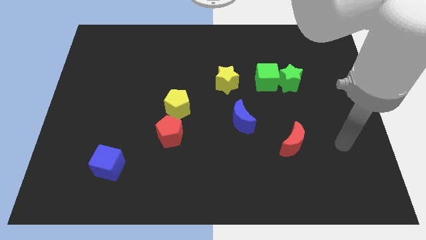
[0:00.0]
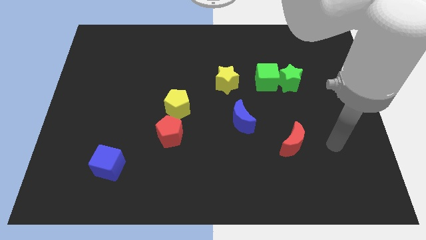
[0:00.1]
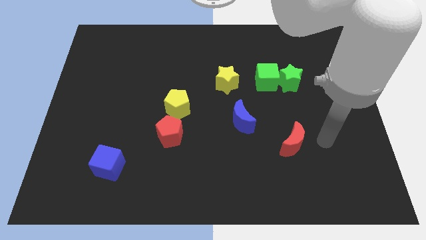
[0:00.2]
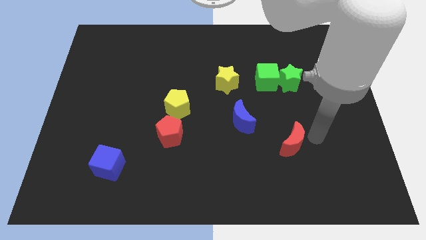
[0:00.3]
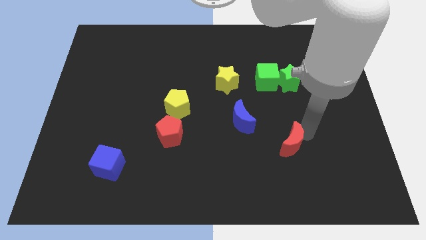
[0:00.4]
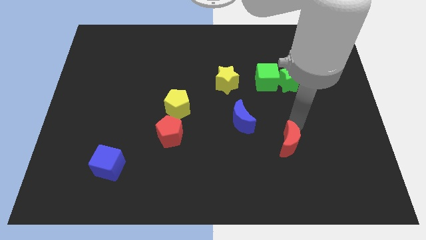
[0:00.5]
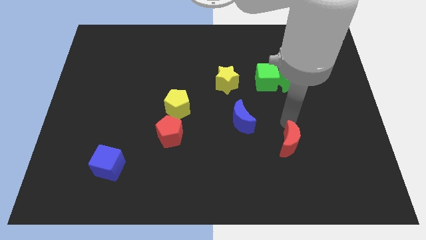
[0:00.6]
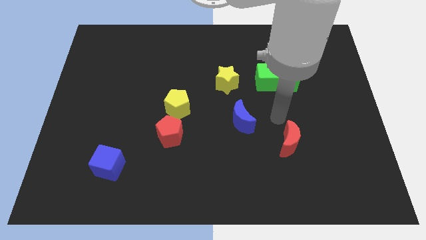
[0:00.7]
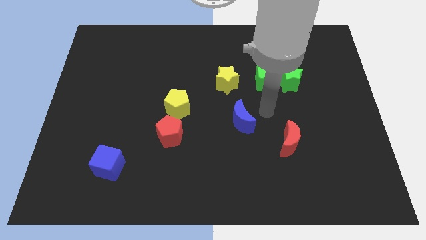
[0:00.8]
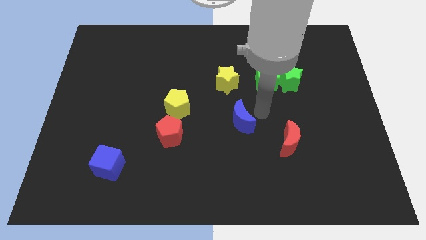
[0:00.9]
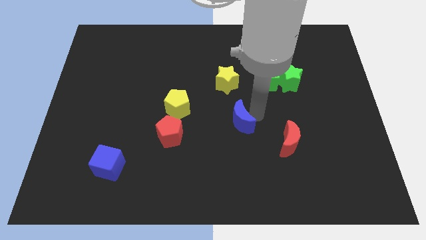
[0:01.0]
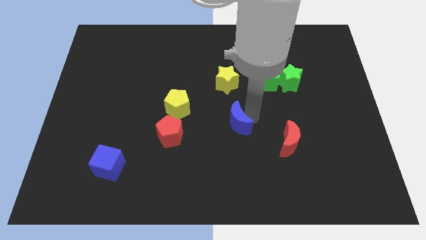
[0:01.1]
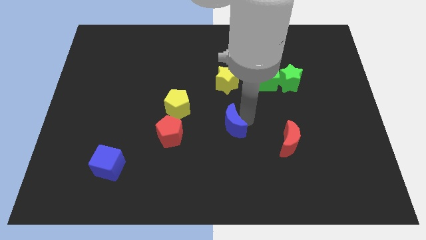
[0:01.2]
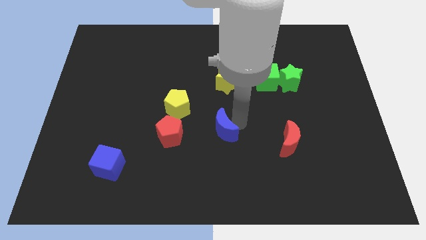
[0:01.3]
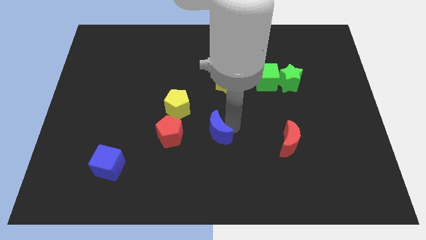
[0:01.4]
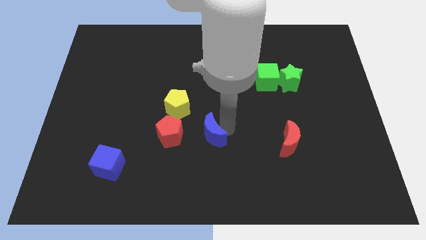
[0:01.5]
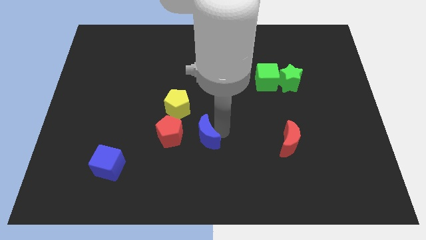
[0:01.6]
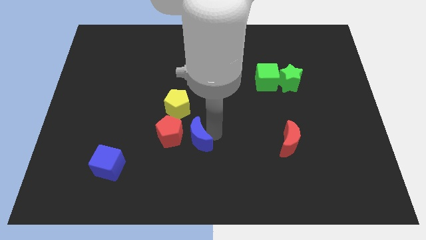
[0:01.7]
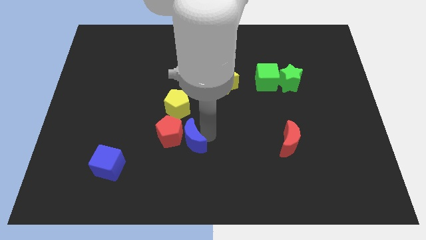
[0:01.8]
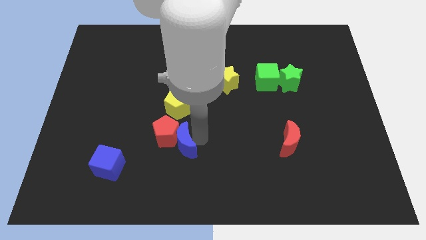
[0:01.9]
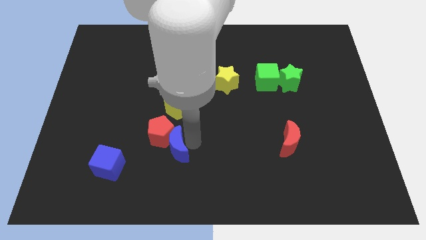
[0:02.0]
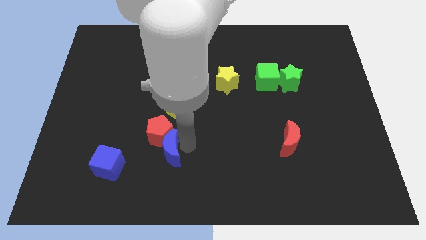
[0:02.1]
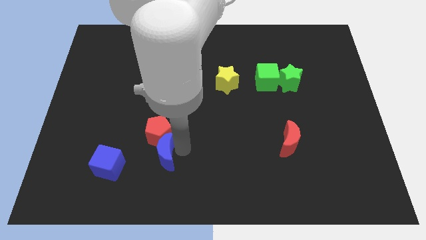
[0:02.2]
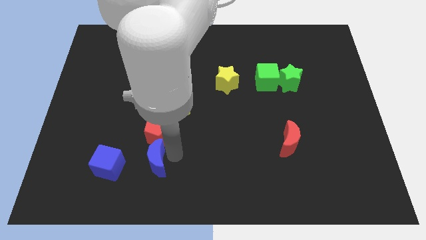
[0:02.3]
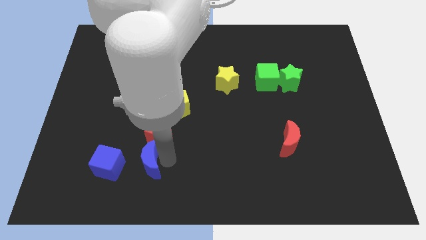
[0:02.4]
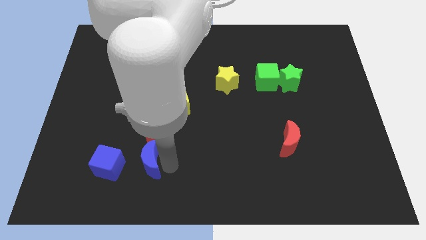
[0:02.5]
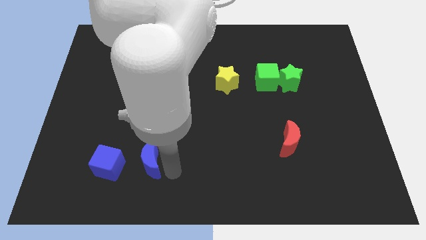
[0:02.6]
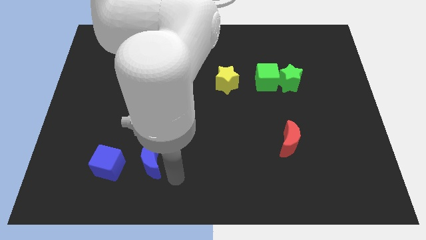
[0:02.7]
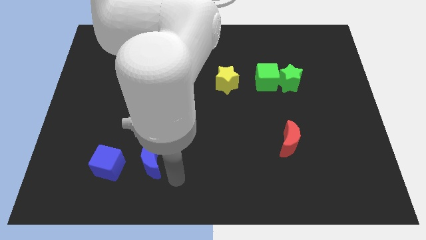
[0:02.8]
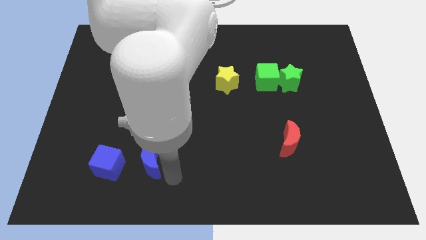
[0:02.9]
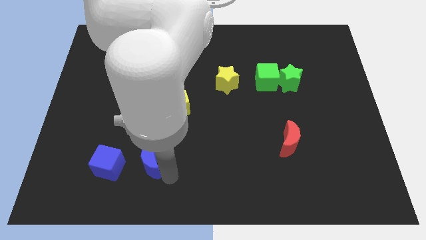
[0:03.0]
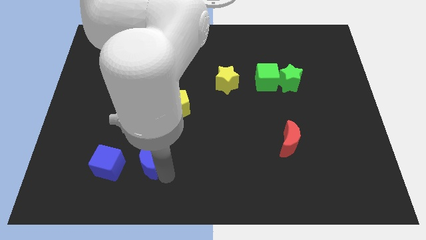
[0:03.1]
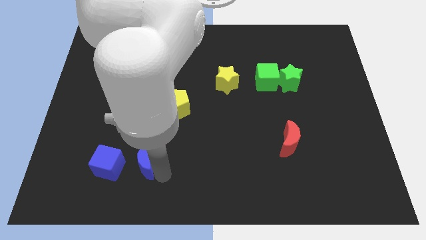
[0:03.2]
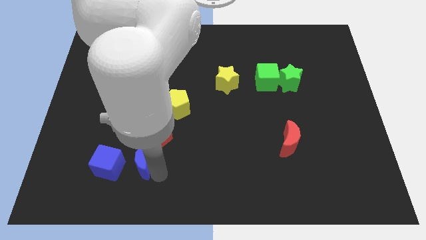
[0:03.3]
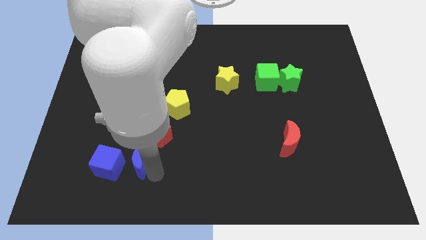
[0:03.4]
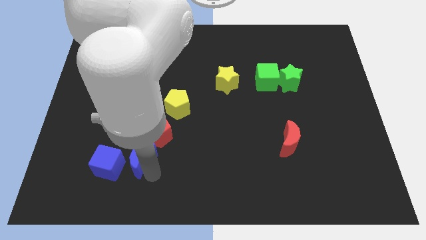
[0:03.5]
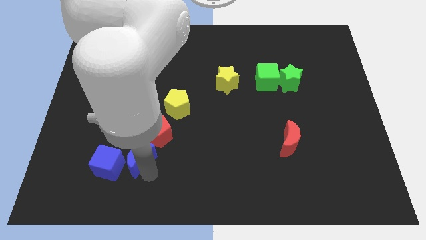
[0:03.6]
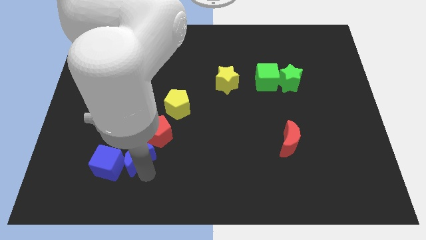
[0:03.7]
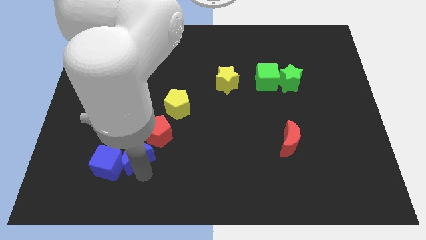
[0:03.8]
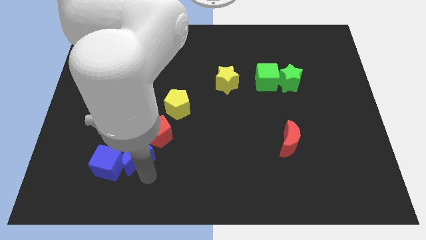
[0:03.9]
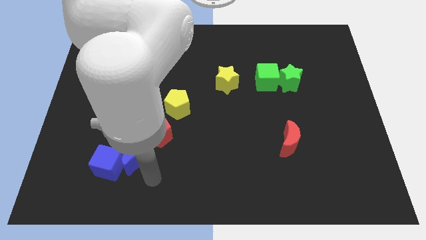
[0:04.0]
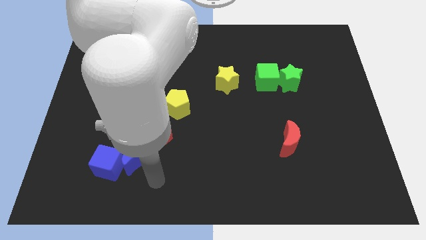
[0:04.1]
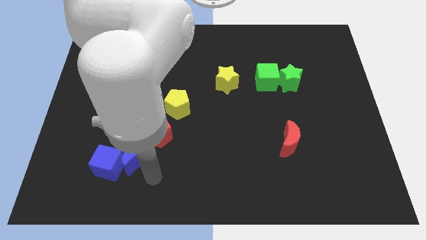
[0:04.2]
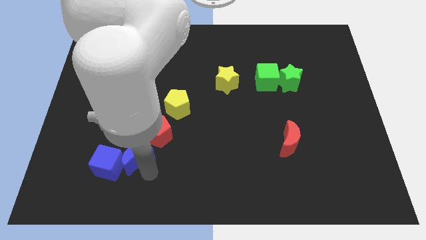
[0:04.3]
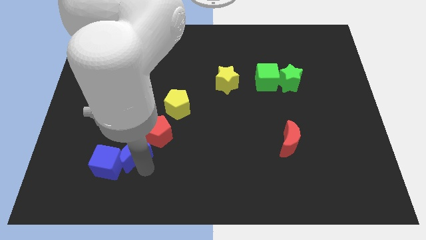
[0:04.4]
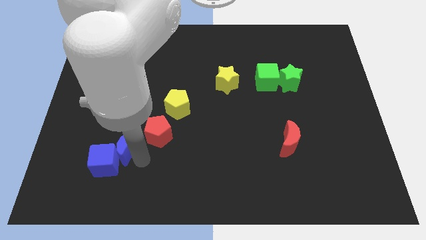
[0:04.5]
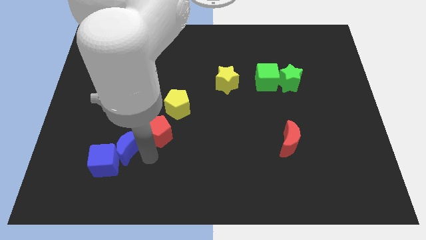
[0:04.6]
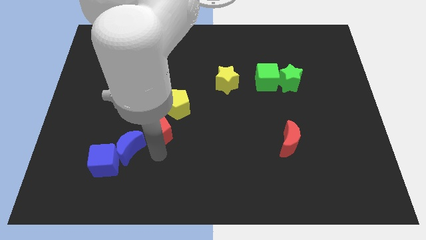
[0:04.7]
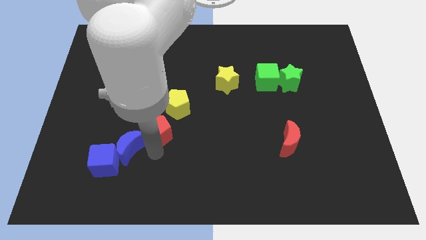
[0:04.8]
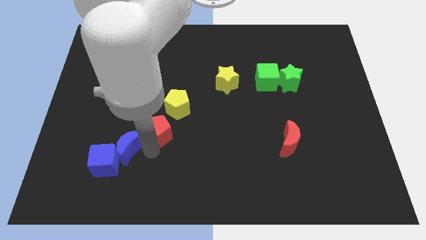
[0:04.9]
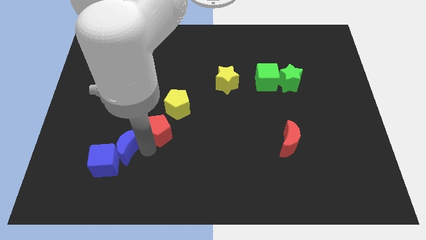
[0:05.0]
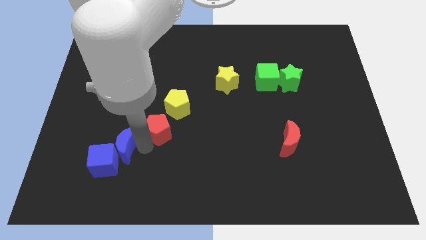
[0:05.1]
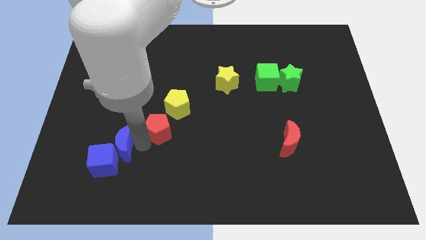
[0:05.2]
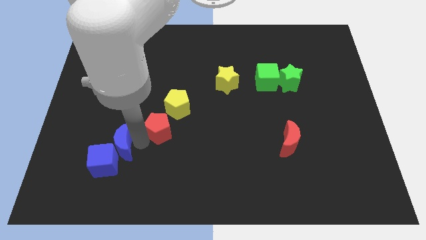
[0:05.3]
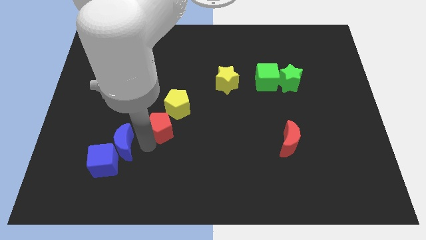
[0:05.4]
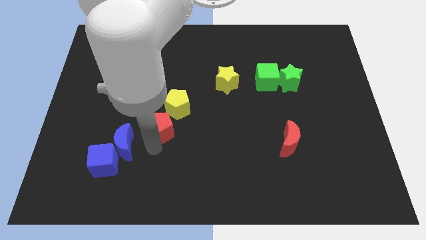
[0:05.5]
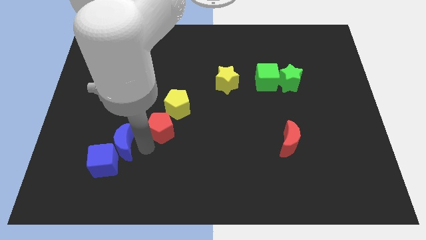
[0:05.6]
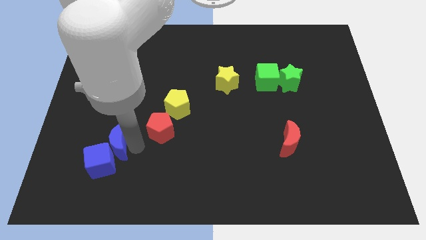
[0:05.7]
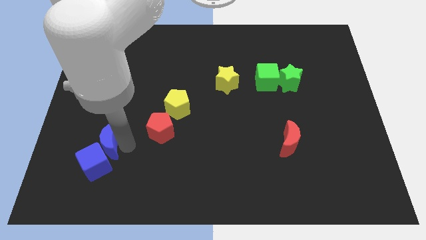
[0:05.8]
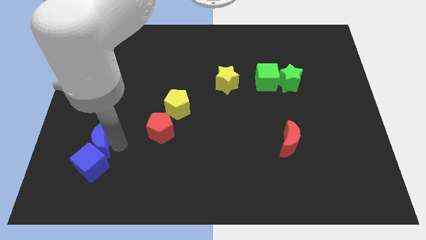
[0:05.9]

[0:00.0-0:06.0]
put the blue moon to the top left of the blue cube
